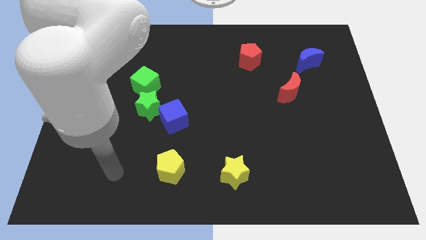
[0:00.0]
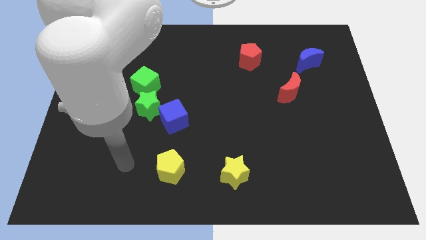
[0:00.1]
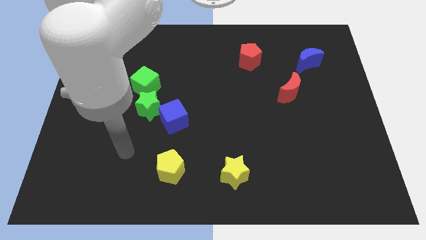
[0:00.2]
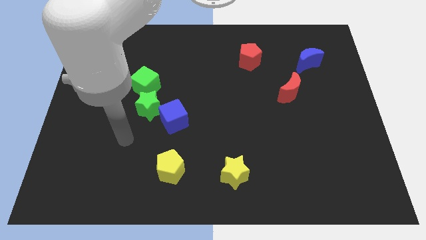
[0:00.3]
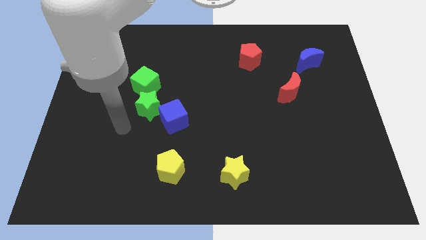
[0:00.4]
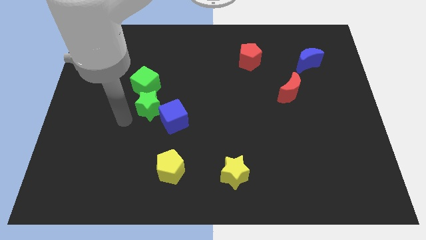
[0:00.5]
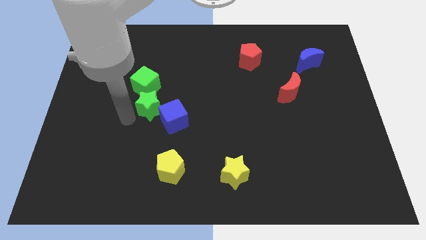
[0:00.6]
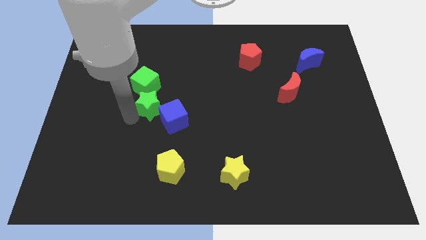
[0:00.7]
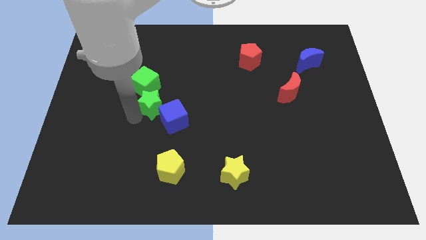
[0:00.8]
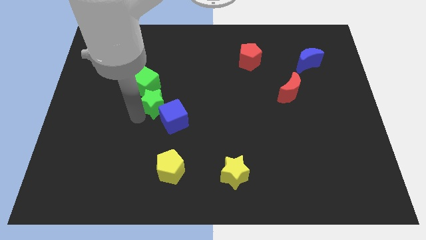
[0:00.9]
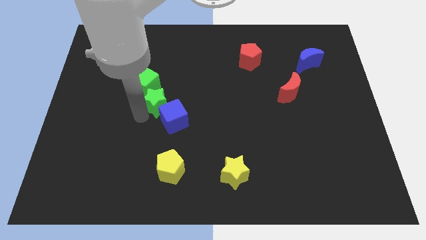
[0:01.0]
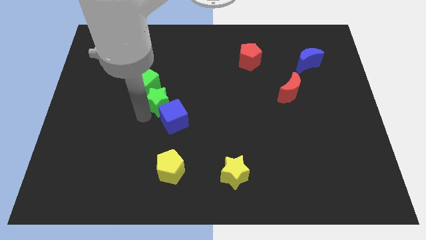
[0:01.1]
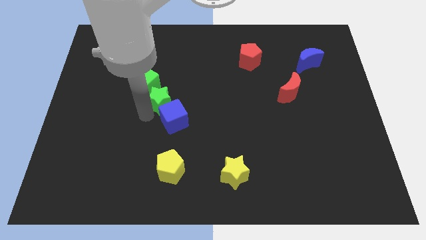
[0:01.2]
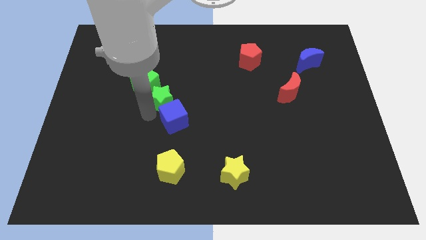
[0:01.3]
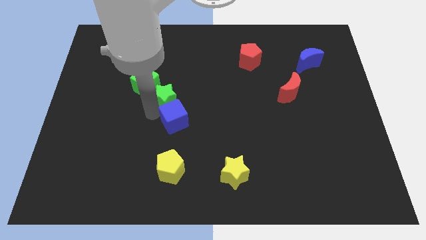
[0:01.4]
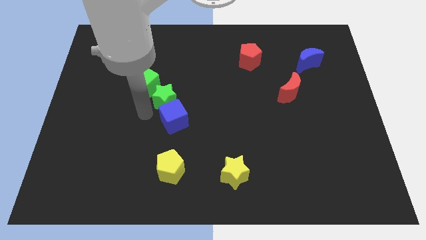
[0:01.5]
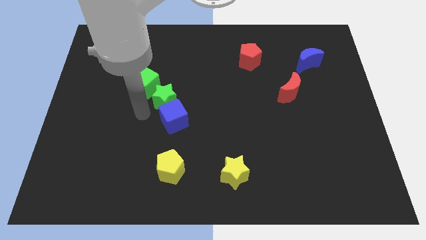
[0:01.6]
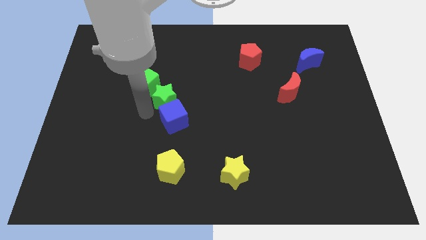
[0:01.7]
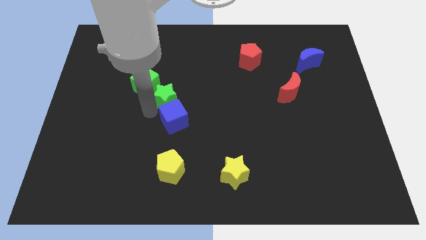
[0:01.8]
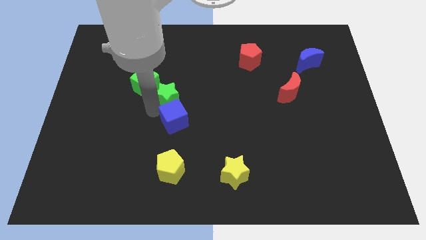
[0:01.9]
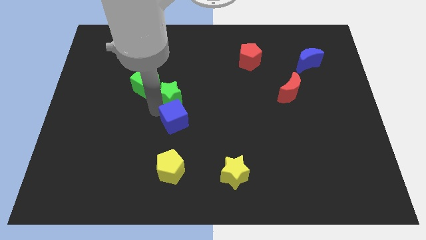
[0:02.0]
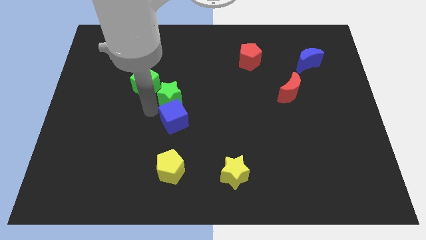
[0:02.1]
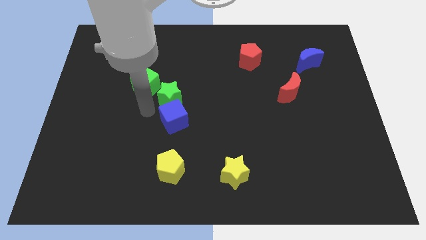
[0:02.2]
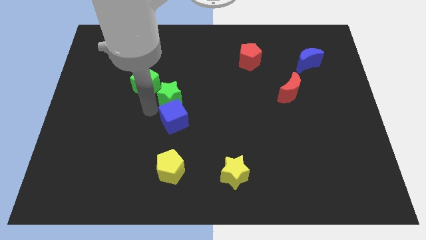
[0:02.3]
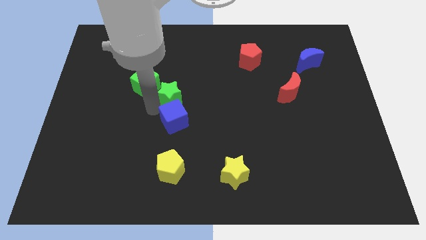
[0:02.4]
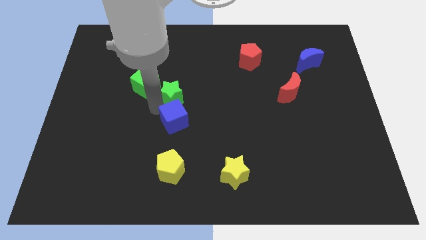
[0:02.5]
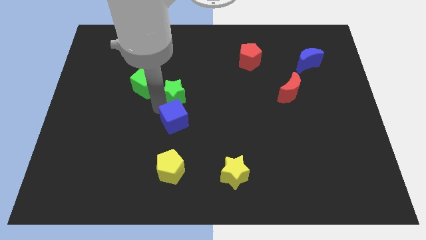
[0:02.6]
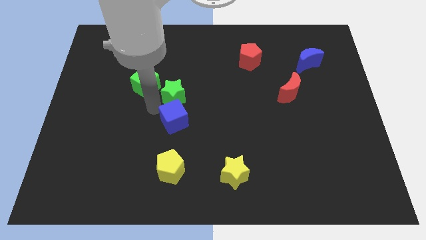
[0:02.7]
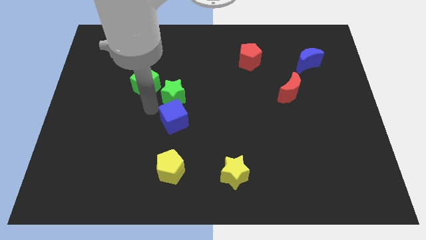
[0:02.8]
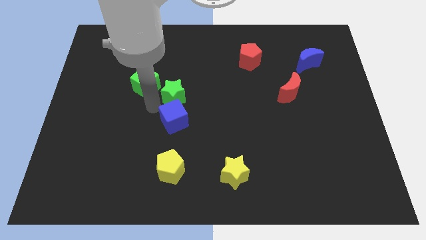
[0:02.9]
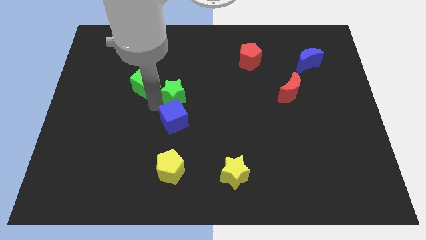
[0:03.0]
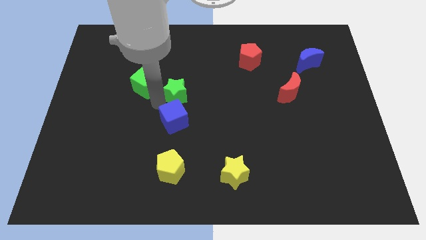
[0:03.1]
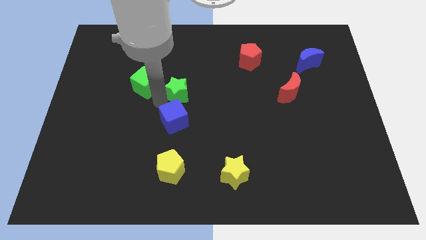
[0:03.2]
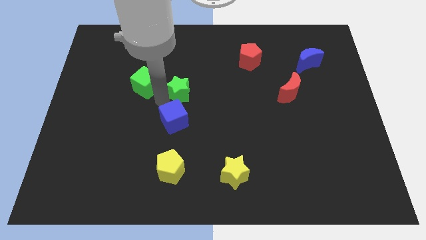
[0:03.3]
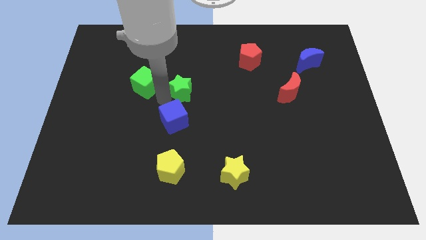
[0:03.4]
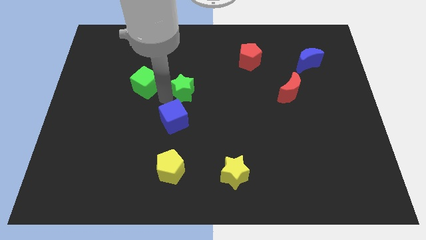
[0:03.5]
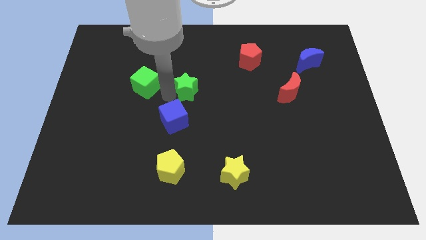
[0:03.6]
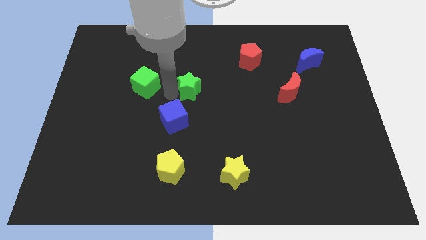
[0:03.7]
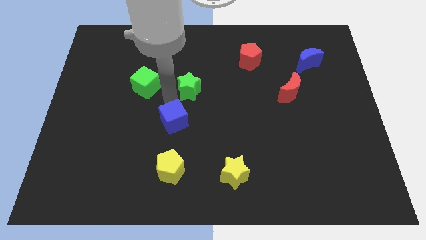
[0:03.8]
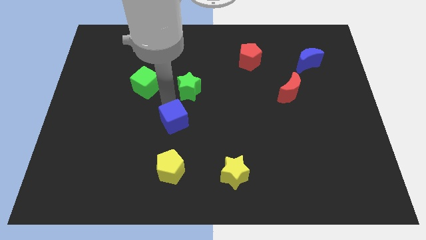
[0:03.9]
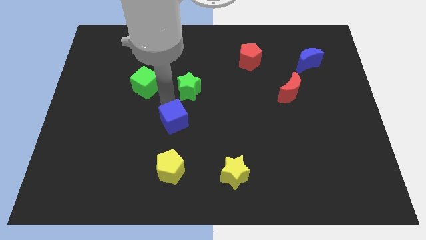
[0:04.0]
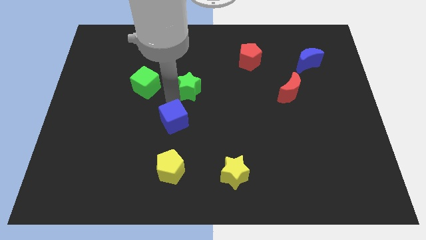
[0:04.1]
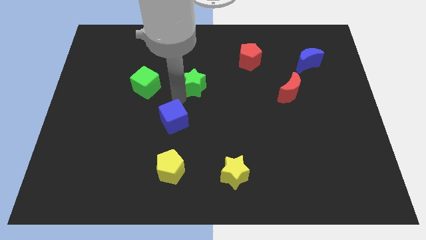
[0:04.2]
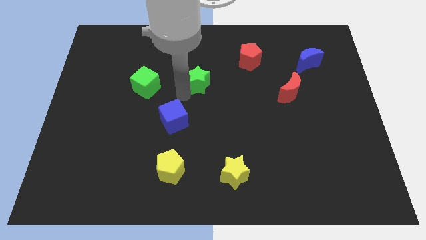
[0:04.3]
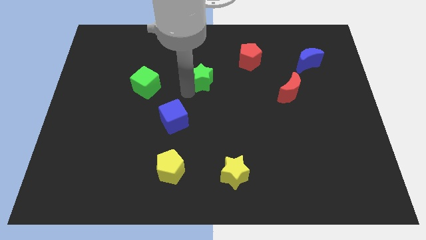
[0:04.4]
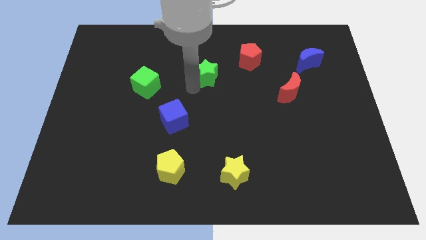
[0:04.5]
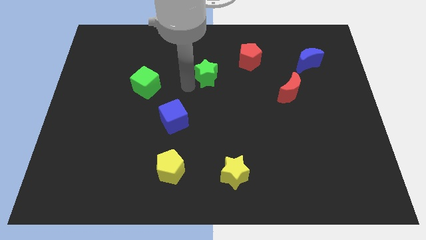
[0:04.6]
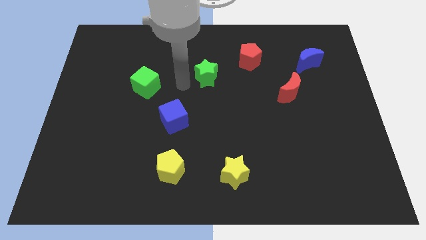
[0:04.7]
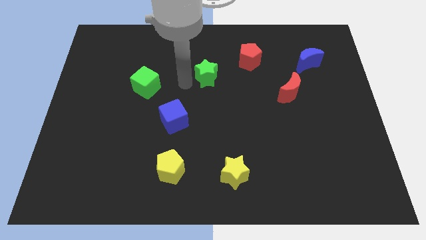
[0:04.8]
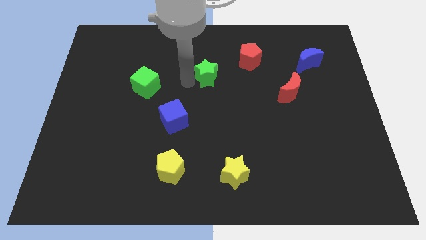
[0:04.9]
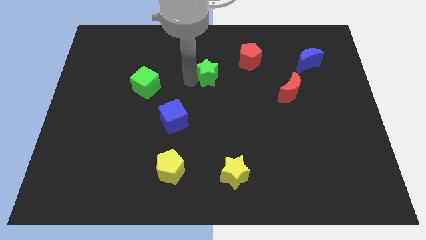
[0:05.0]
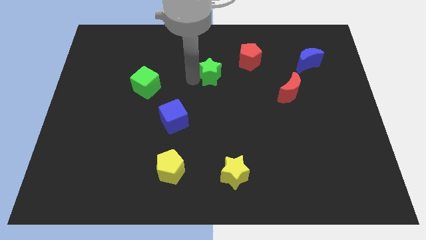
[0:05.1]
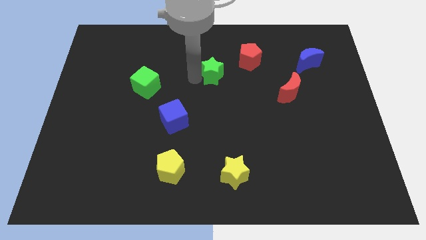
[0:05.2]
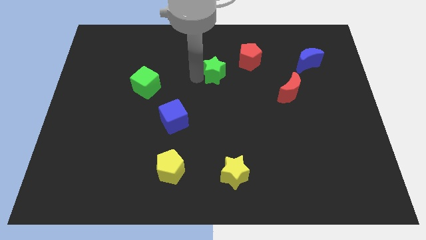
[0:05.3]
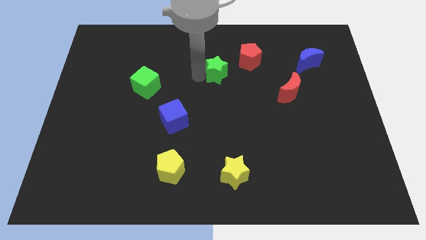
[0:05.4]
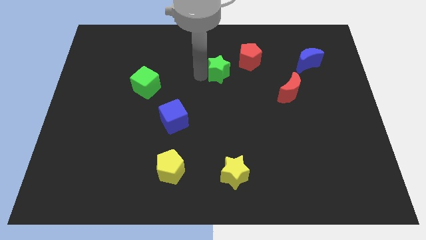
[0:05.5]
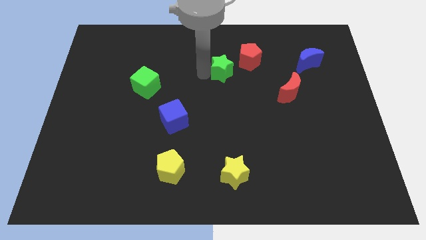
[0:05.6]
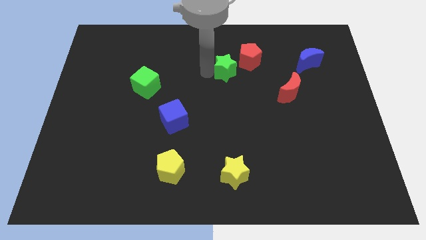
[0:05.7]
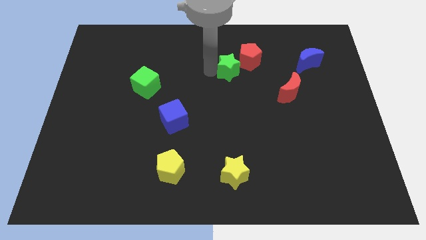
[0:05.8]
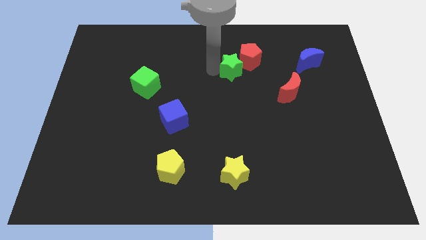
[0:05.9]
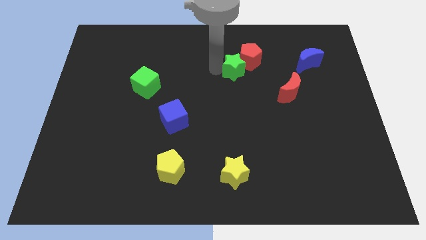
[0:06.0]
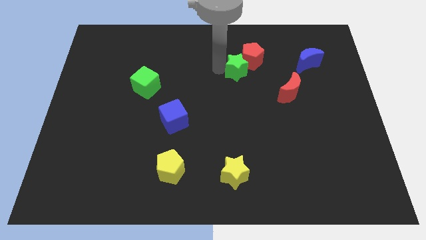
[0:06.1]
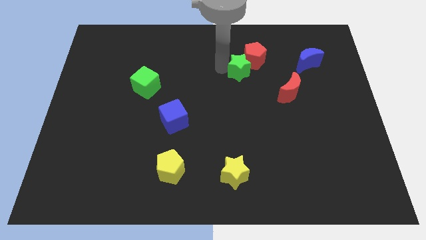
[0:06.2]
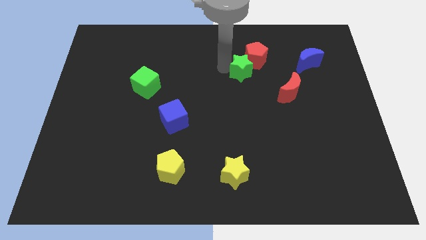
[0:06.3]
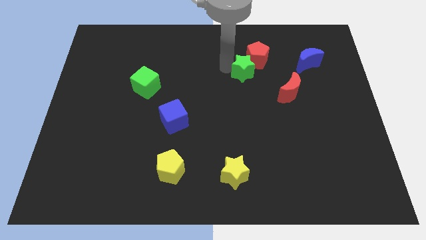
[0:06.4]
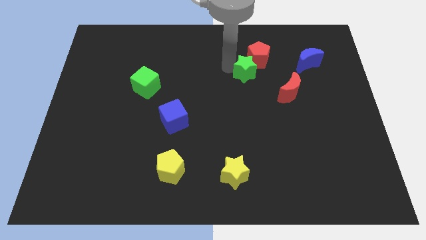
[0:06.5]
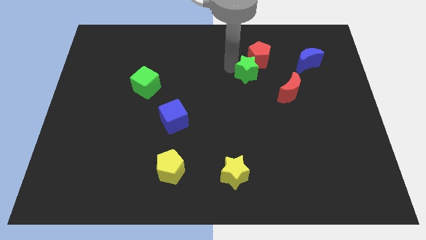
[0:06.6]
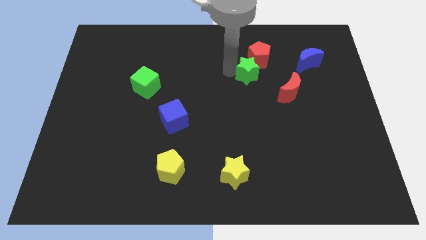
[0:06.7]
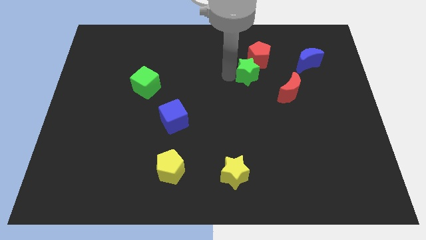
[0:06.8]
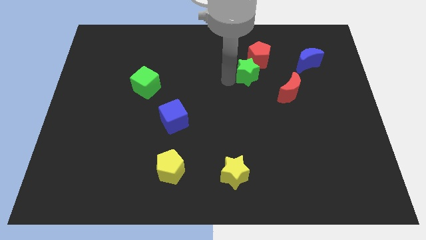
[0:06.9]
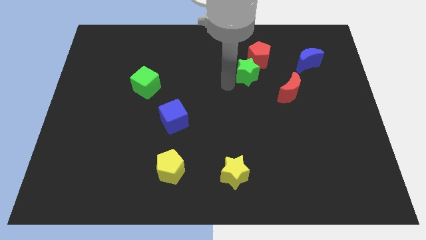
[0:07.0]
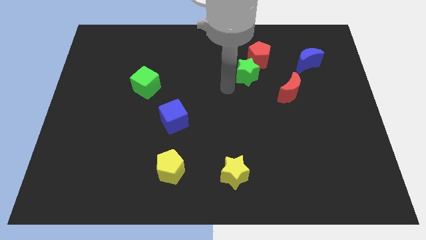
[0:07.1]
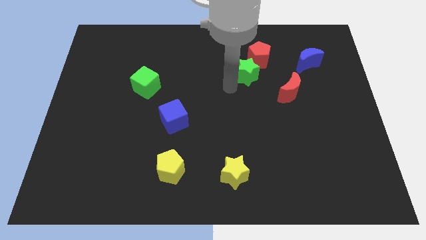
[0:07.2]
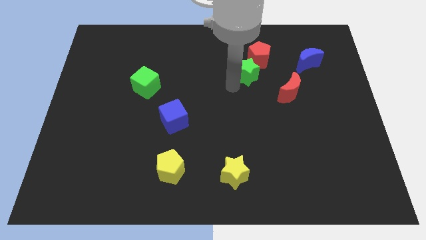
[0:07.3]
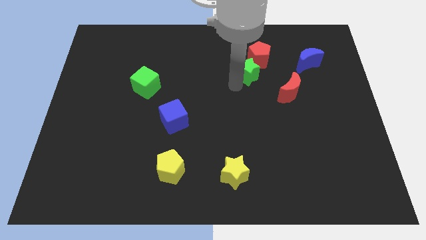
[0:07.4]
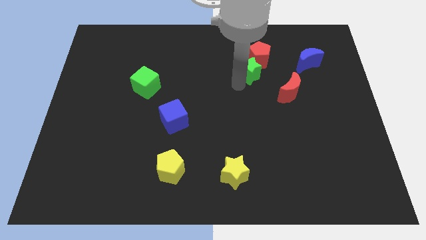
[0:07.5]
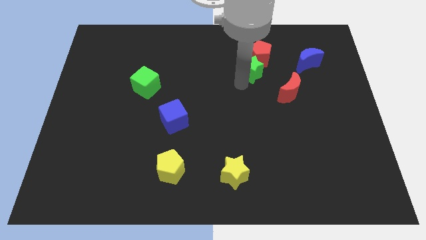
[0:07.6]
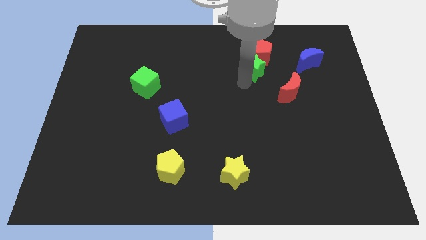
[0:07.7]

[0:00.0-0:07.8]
move the green star left of the blue moon
